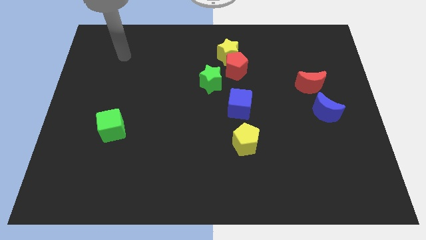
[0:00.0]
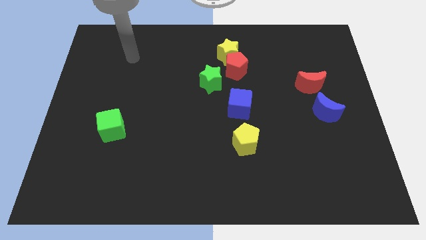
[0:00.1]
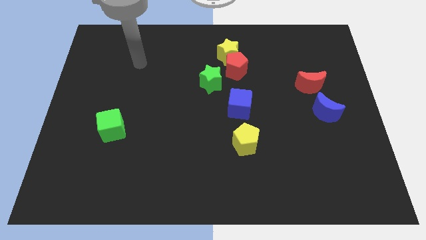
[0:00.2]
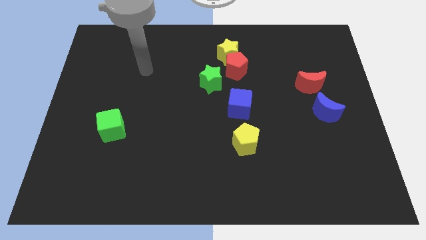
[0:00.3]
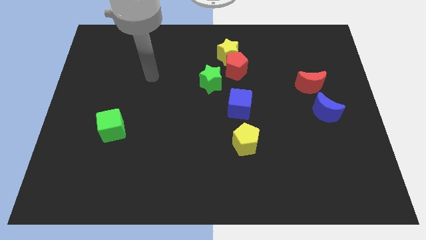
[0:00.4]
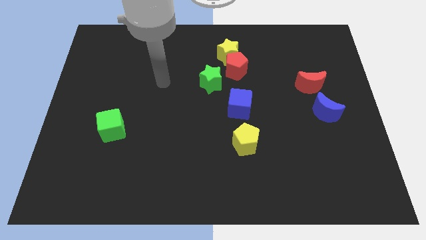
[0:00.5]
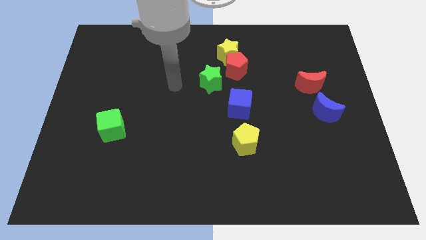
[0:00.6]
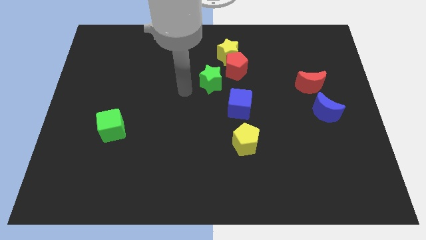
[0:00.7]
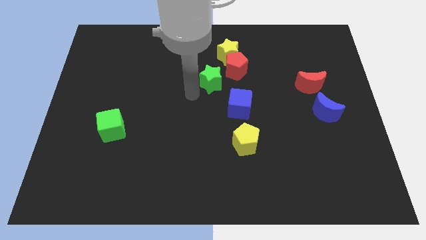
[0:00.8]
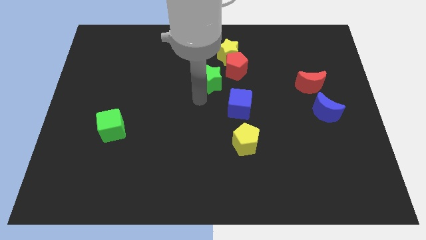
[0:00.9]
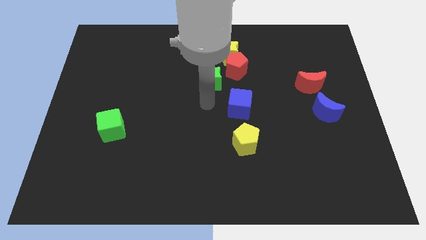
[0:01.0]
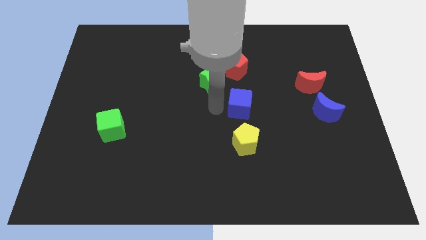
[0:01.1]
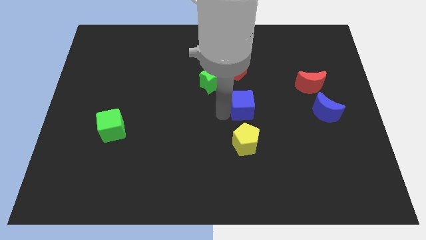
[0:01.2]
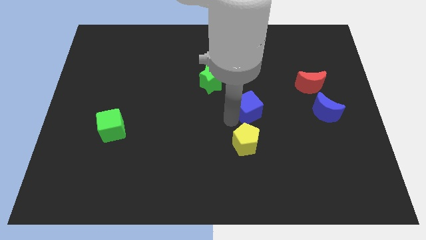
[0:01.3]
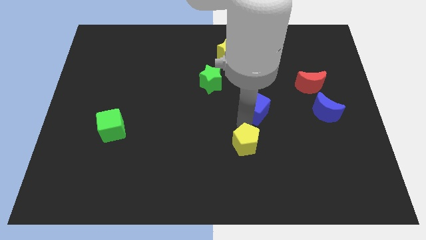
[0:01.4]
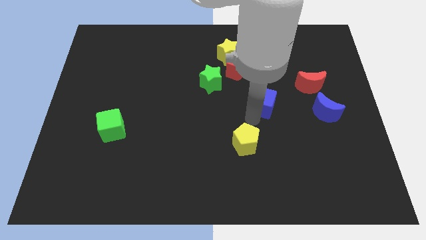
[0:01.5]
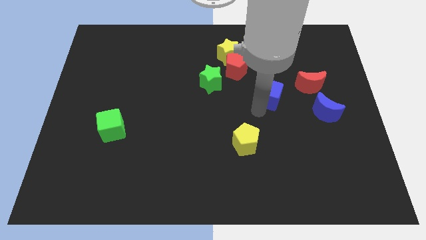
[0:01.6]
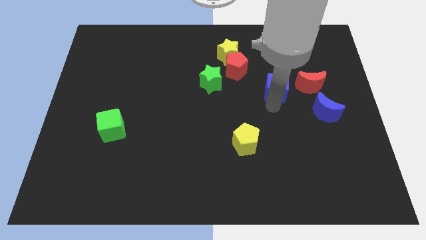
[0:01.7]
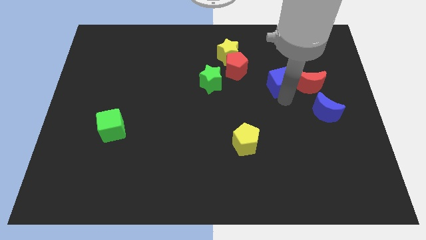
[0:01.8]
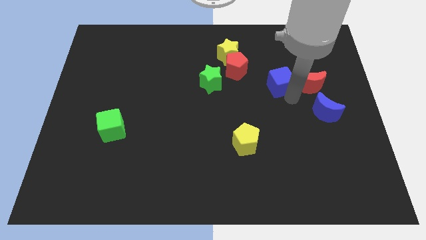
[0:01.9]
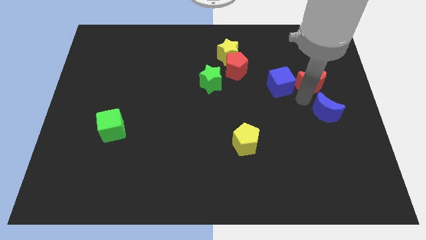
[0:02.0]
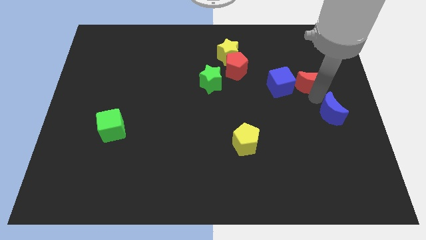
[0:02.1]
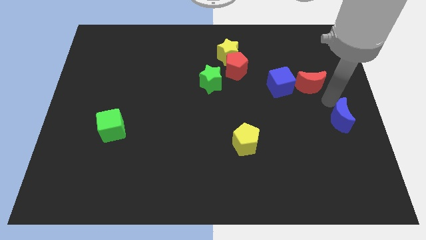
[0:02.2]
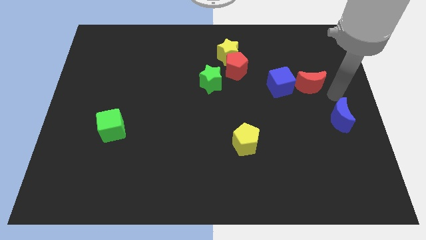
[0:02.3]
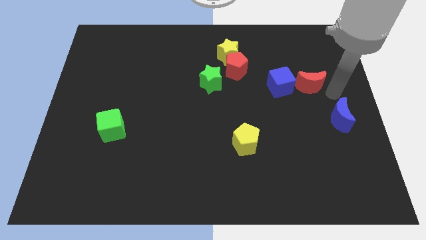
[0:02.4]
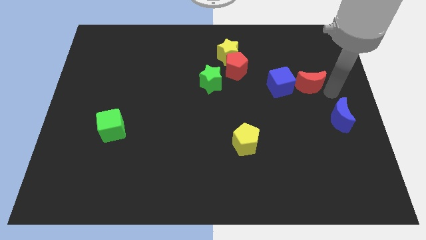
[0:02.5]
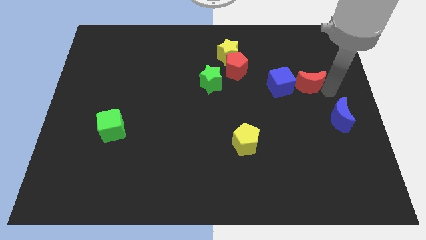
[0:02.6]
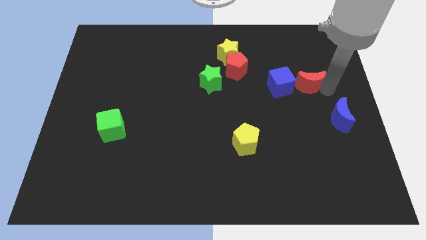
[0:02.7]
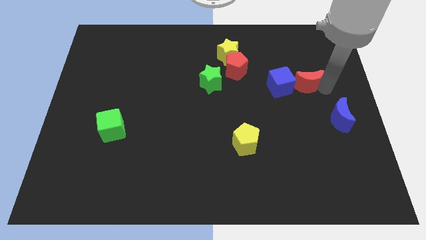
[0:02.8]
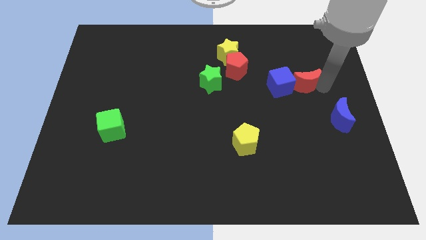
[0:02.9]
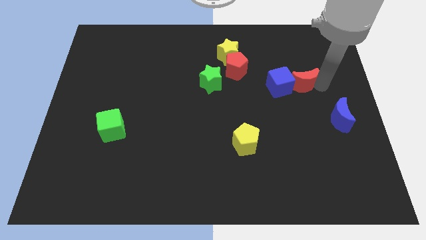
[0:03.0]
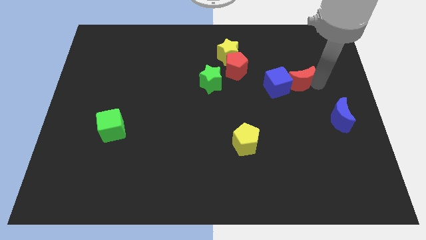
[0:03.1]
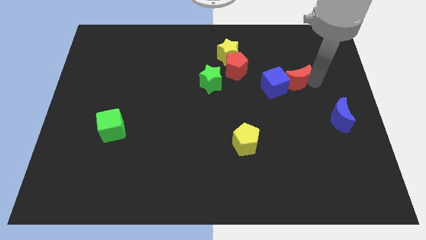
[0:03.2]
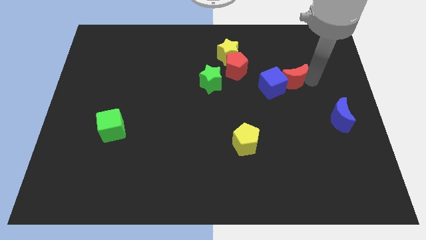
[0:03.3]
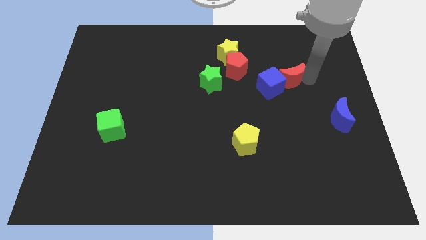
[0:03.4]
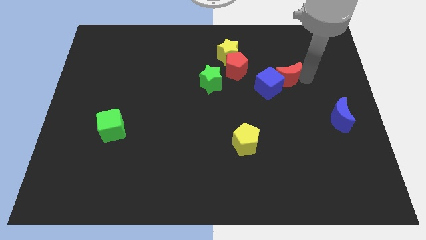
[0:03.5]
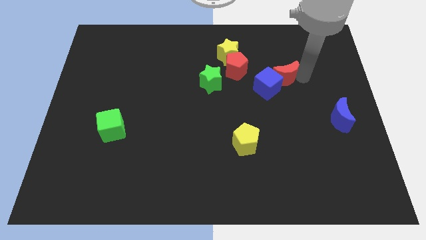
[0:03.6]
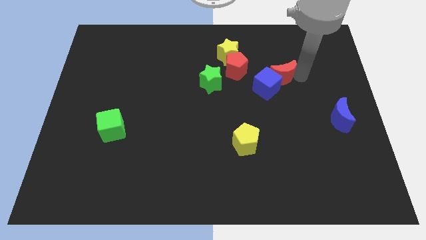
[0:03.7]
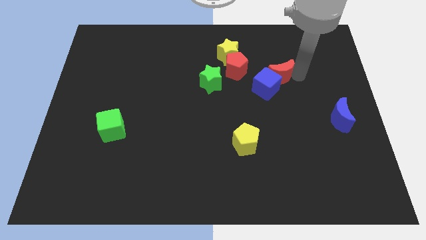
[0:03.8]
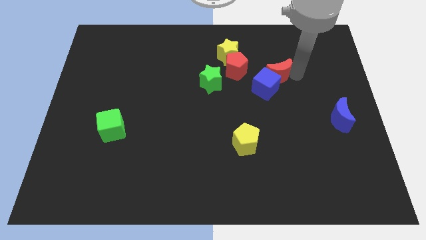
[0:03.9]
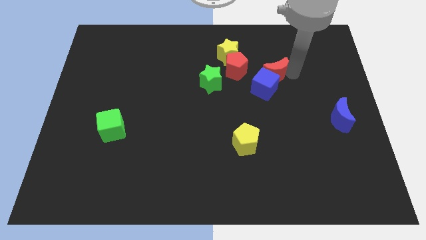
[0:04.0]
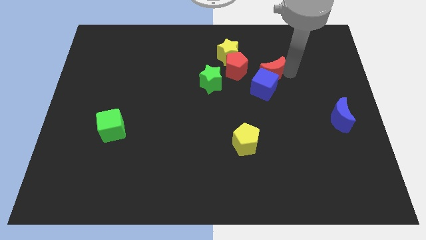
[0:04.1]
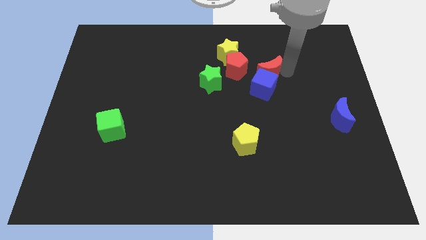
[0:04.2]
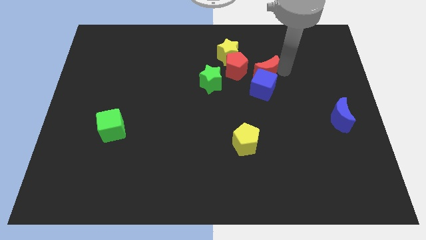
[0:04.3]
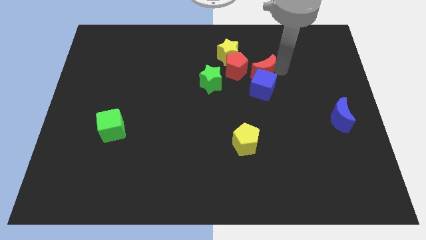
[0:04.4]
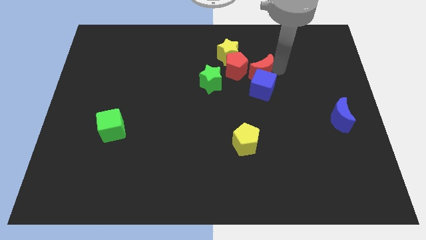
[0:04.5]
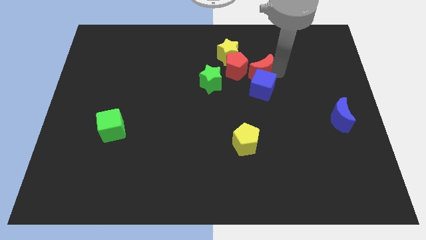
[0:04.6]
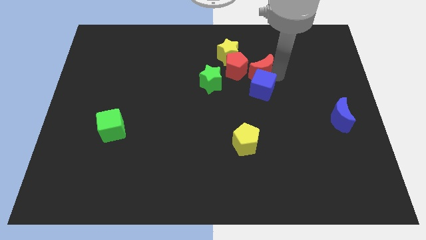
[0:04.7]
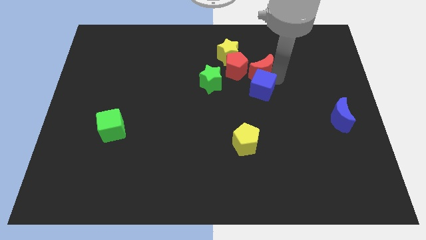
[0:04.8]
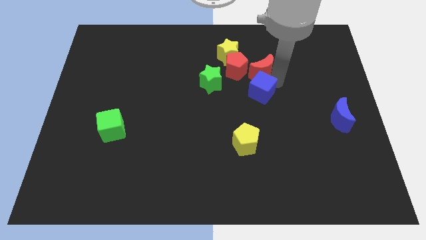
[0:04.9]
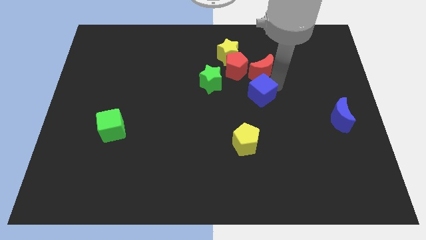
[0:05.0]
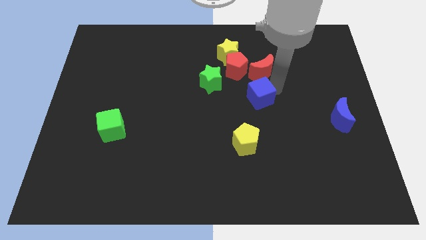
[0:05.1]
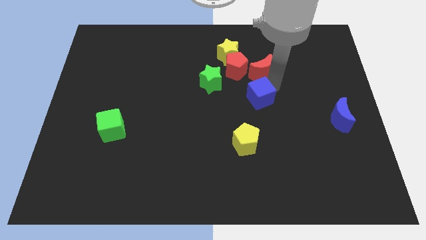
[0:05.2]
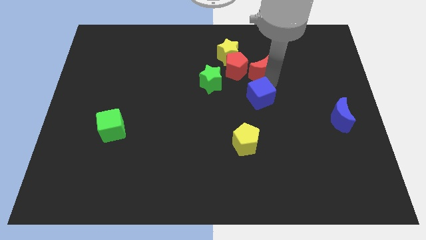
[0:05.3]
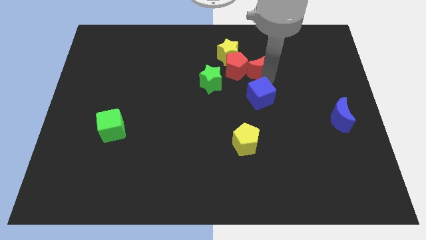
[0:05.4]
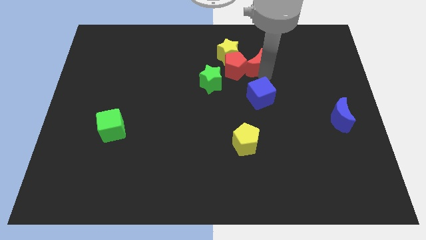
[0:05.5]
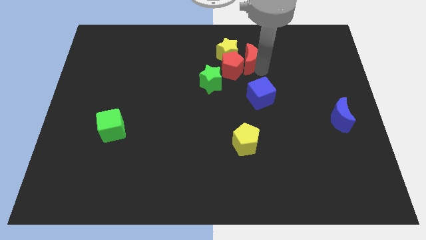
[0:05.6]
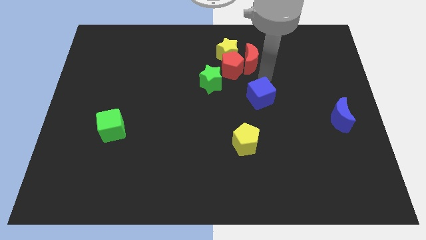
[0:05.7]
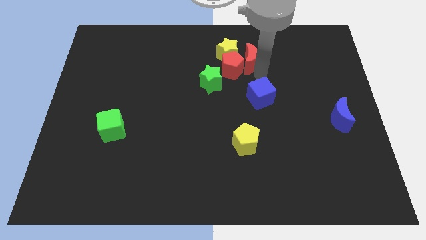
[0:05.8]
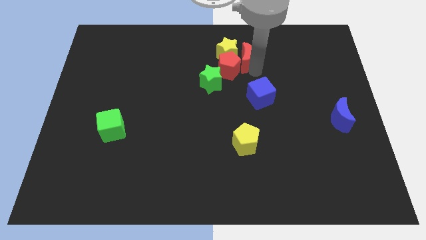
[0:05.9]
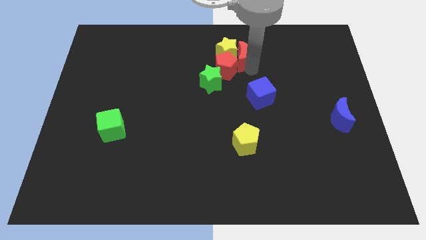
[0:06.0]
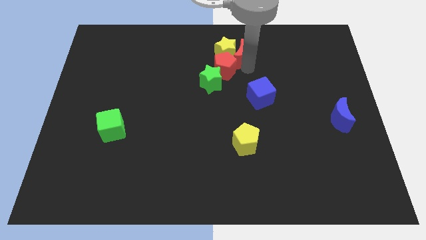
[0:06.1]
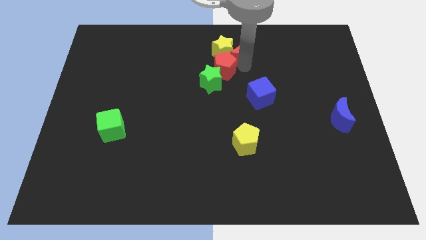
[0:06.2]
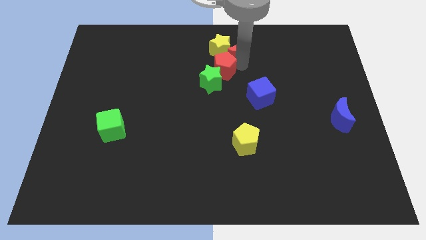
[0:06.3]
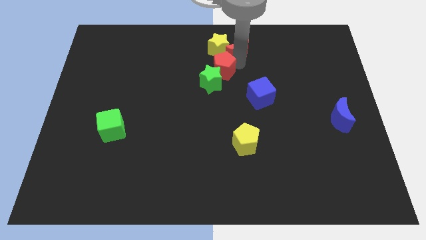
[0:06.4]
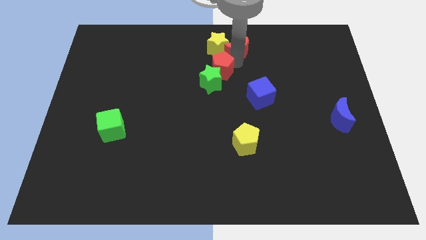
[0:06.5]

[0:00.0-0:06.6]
move the red moon to the towards your base
